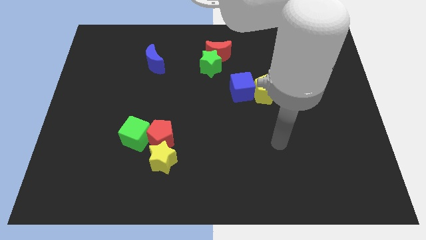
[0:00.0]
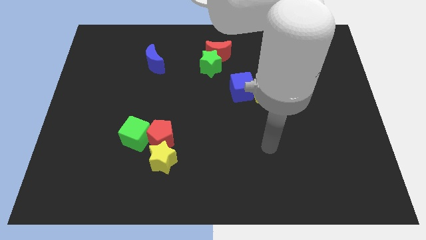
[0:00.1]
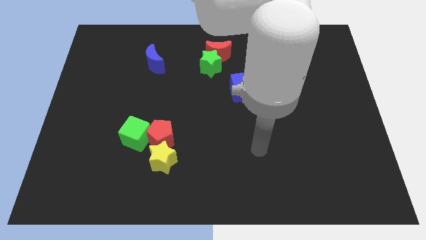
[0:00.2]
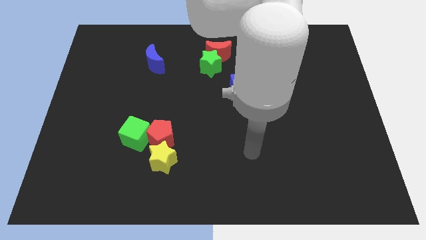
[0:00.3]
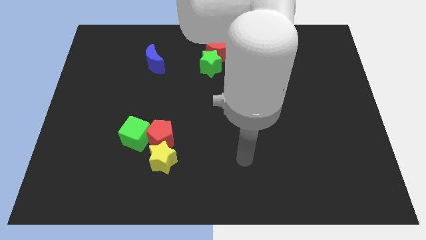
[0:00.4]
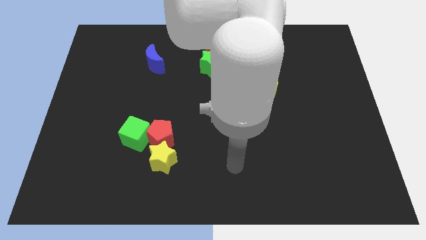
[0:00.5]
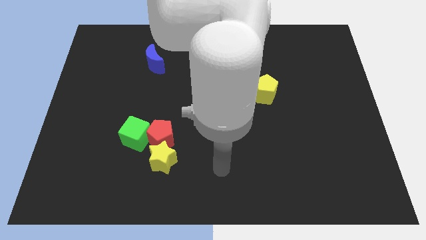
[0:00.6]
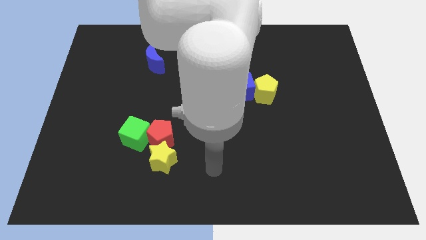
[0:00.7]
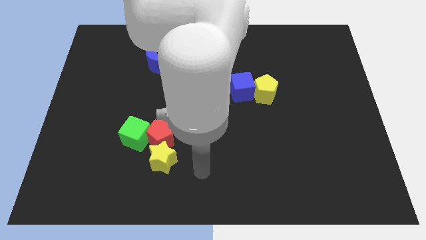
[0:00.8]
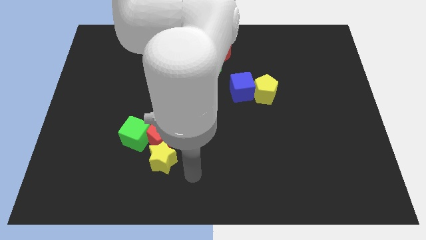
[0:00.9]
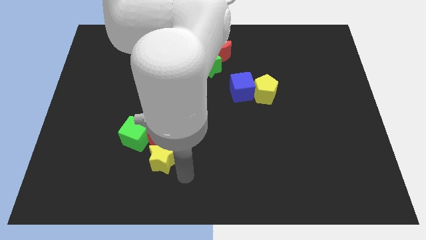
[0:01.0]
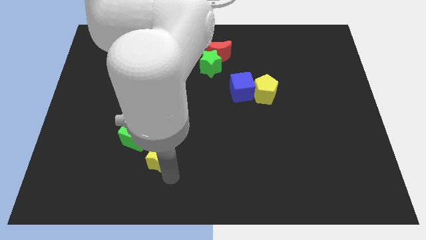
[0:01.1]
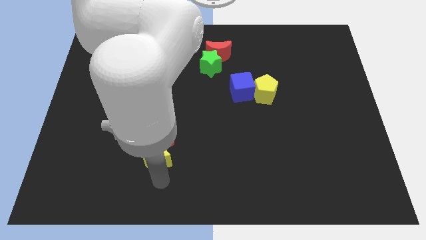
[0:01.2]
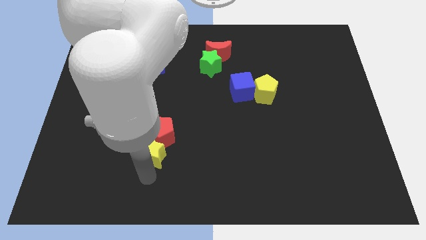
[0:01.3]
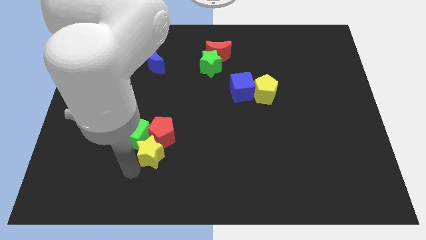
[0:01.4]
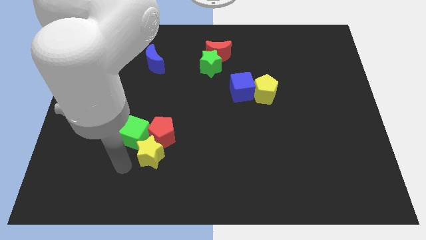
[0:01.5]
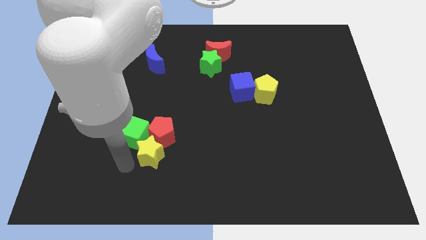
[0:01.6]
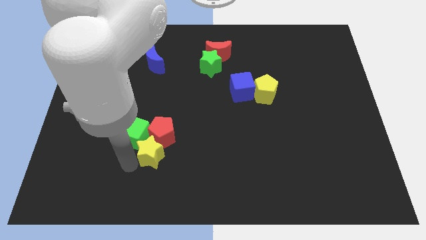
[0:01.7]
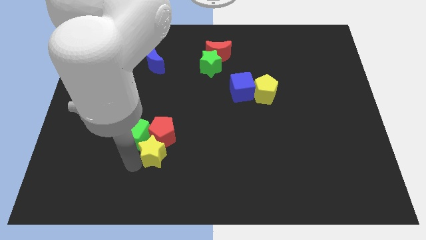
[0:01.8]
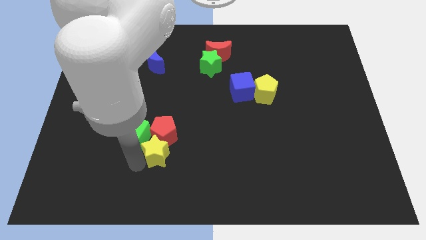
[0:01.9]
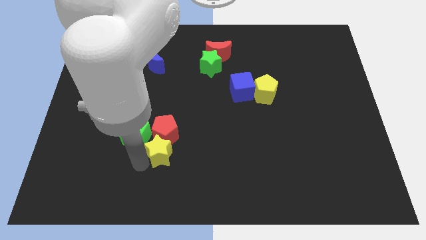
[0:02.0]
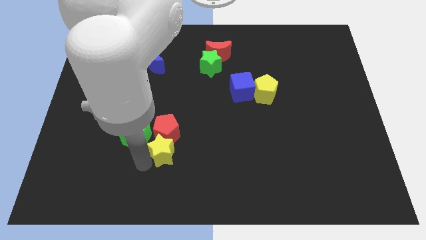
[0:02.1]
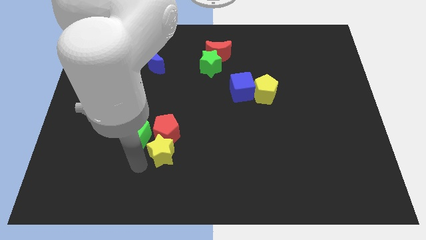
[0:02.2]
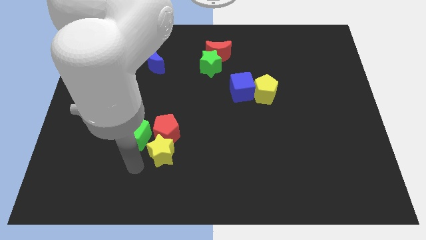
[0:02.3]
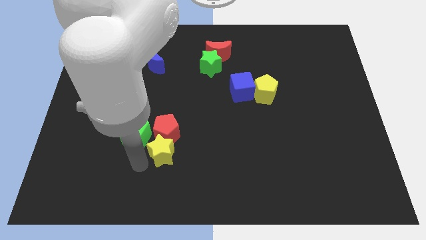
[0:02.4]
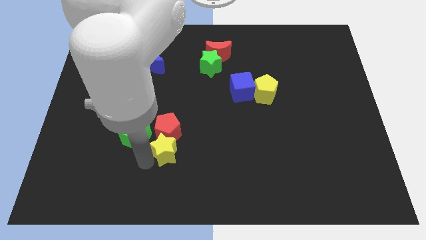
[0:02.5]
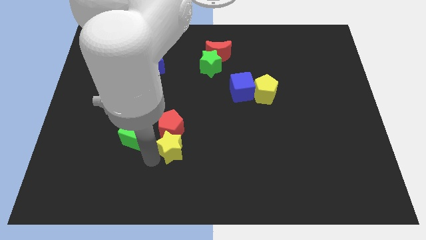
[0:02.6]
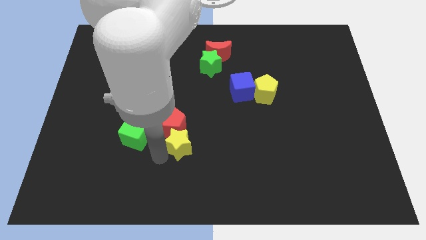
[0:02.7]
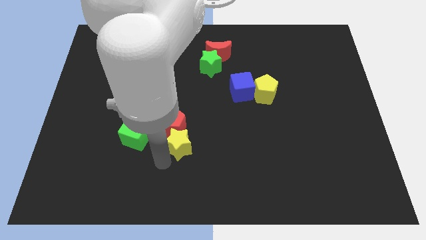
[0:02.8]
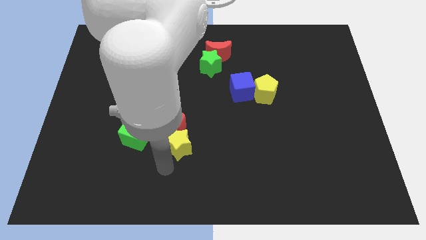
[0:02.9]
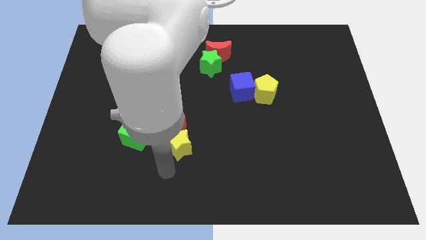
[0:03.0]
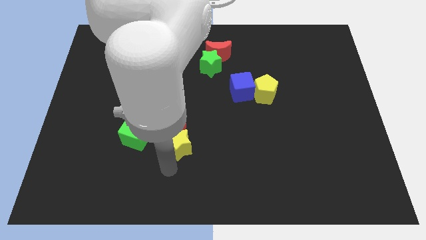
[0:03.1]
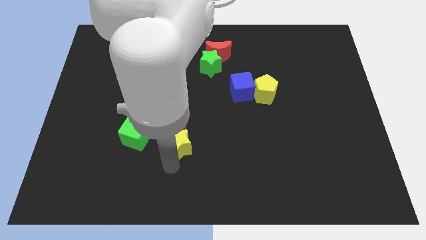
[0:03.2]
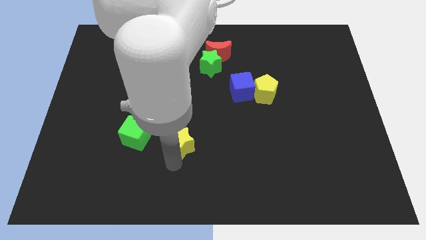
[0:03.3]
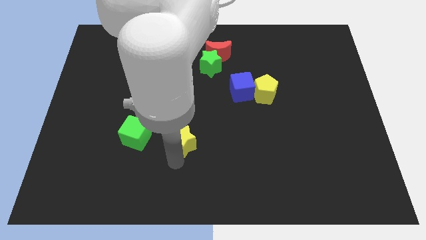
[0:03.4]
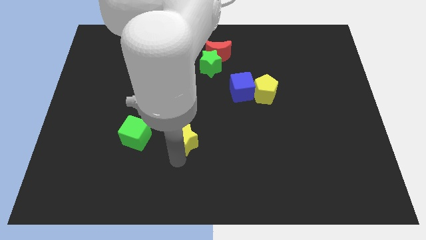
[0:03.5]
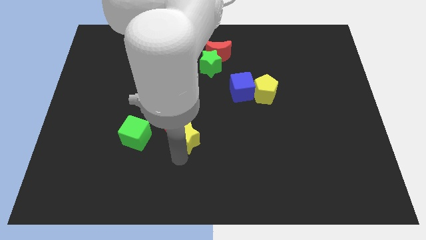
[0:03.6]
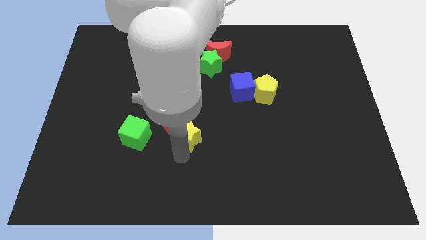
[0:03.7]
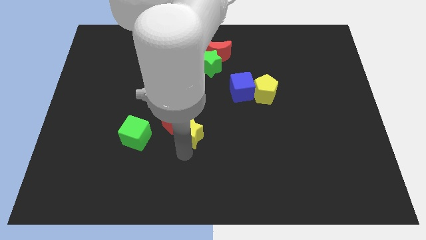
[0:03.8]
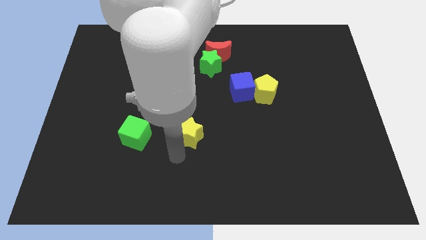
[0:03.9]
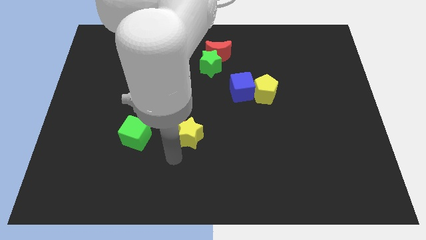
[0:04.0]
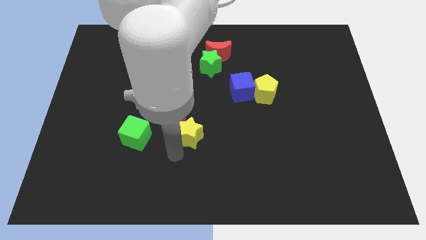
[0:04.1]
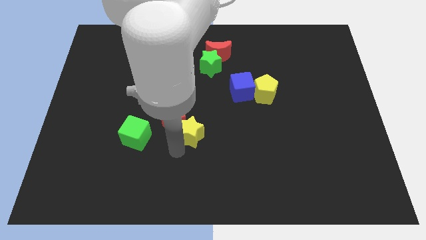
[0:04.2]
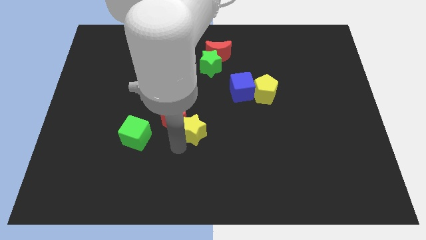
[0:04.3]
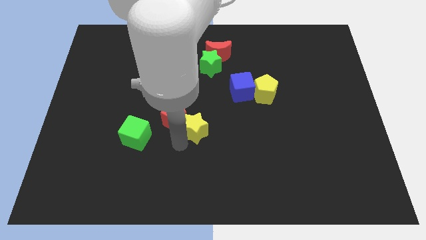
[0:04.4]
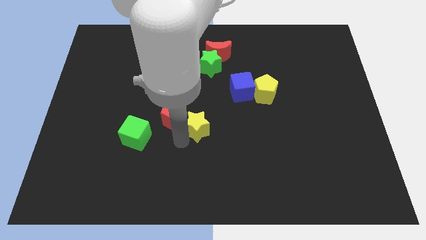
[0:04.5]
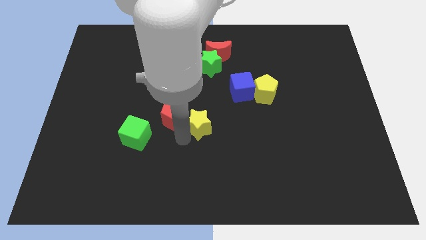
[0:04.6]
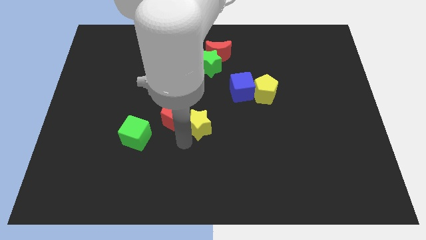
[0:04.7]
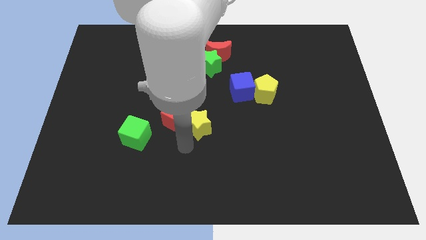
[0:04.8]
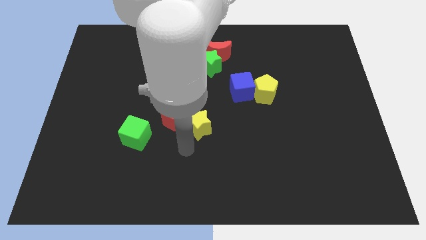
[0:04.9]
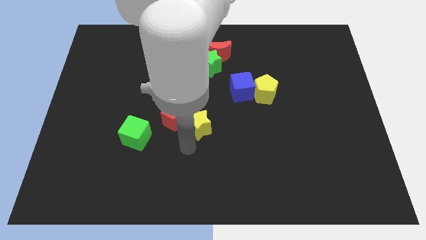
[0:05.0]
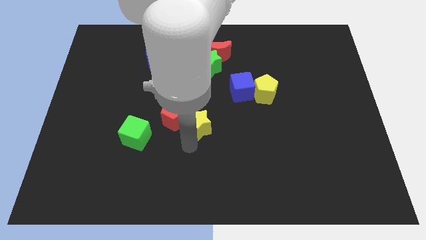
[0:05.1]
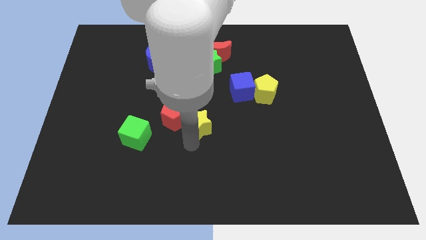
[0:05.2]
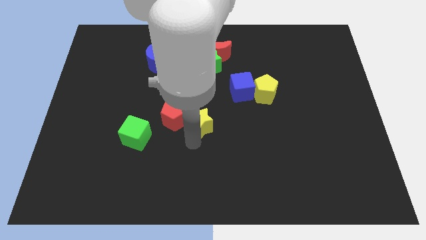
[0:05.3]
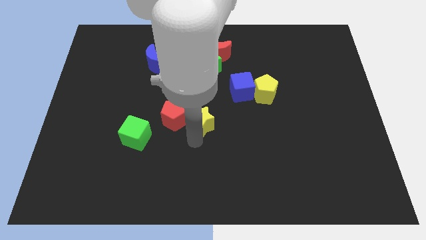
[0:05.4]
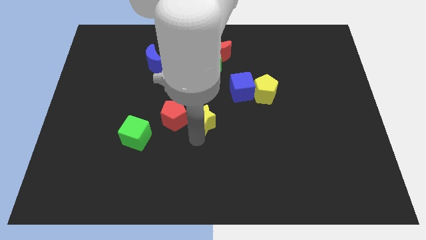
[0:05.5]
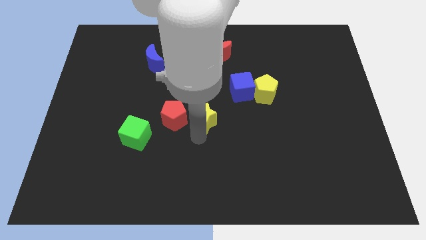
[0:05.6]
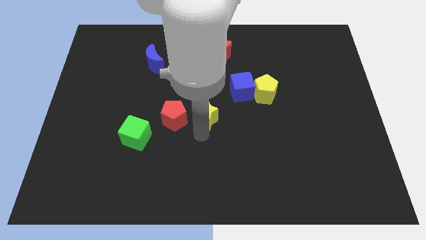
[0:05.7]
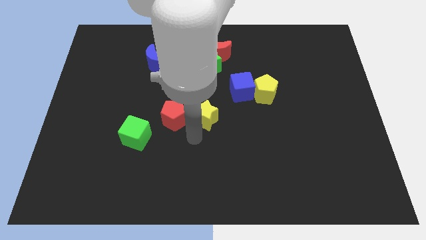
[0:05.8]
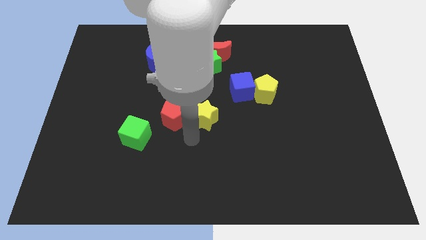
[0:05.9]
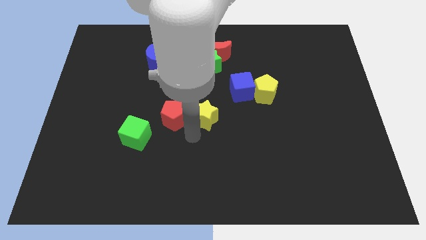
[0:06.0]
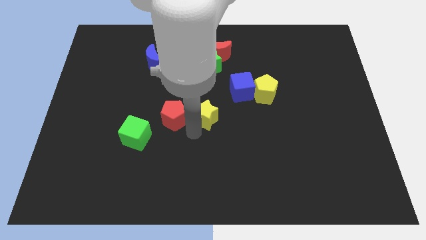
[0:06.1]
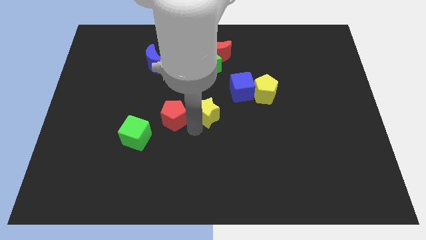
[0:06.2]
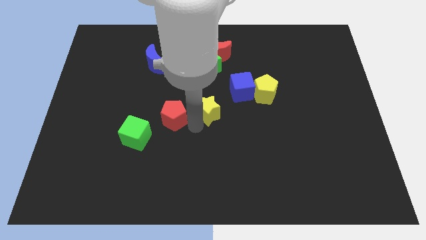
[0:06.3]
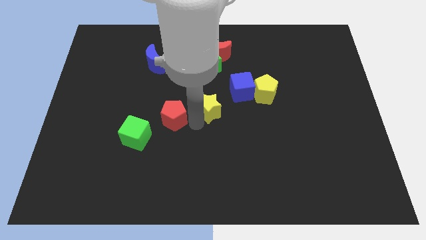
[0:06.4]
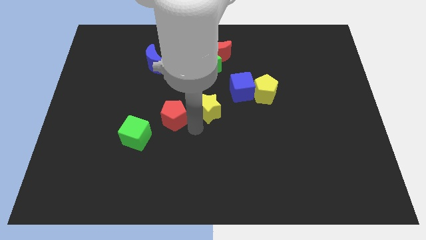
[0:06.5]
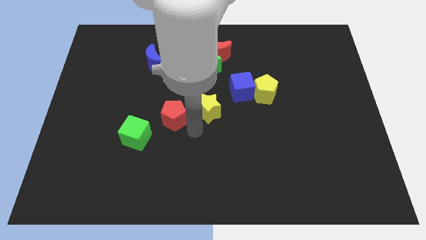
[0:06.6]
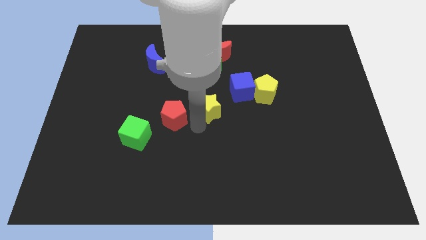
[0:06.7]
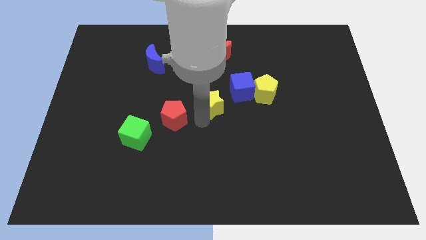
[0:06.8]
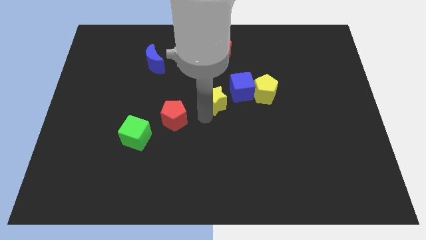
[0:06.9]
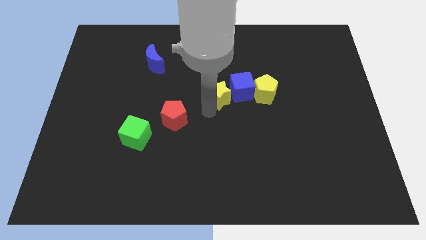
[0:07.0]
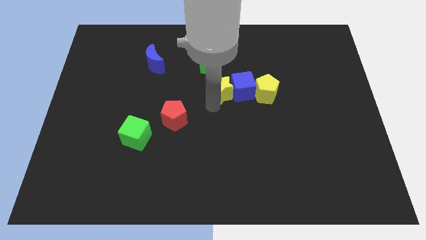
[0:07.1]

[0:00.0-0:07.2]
move the yellow star to the bottom right side of the green star
